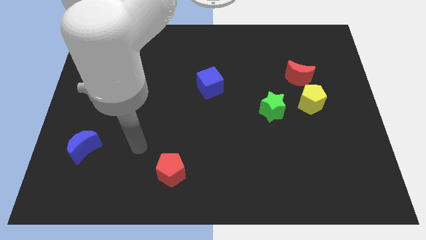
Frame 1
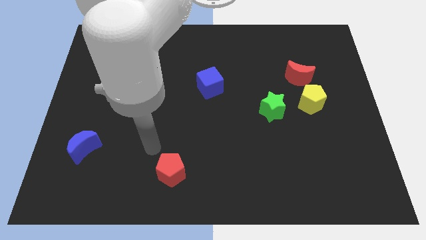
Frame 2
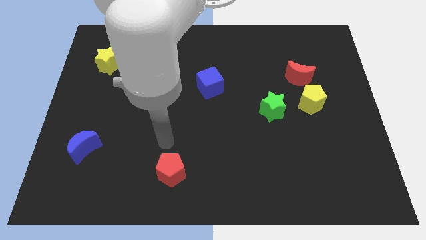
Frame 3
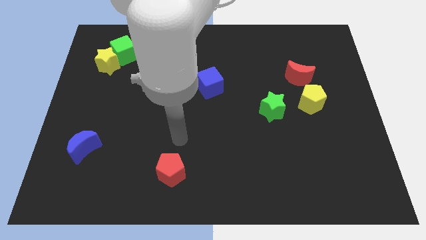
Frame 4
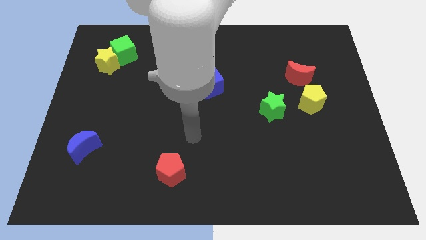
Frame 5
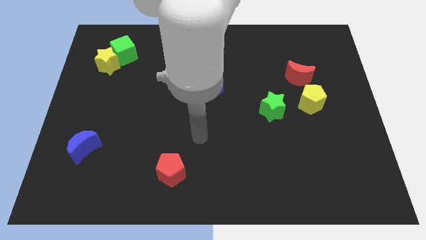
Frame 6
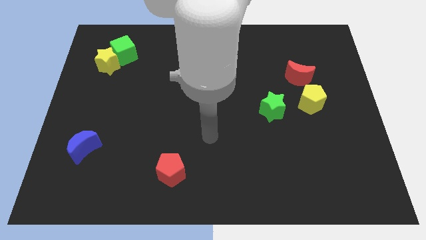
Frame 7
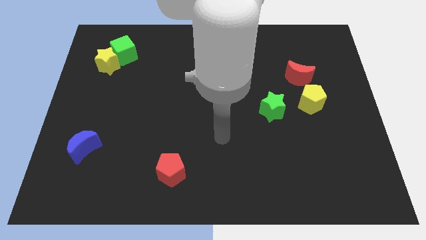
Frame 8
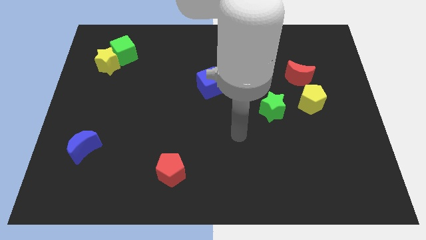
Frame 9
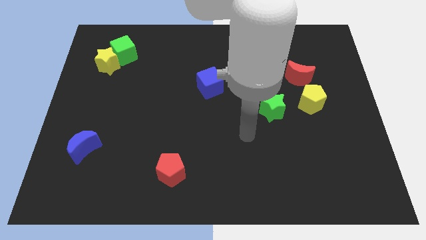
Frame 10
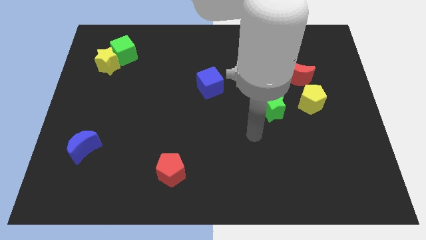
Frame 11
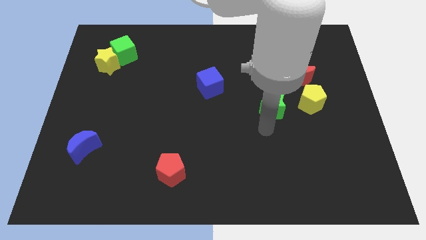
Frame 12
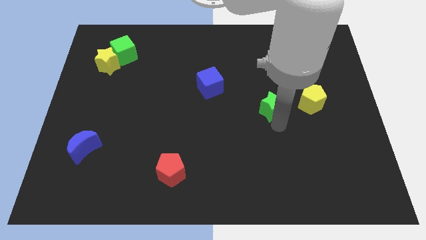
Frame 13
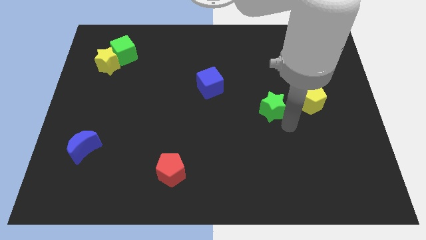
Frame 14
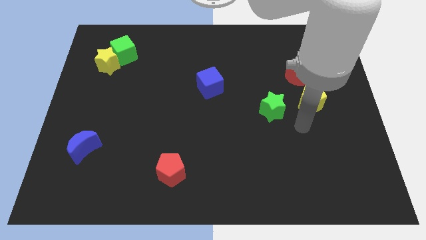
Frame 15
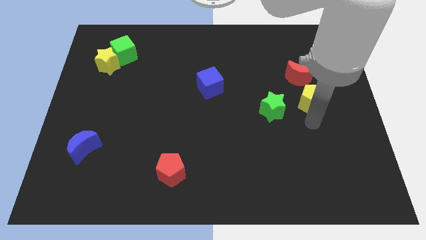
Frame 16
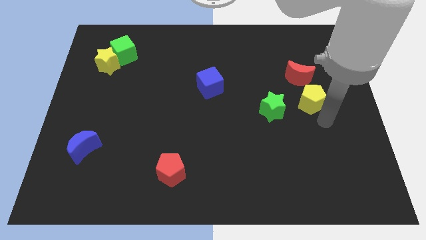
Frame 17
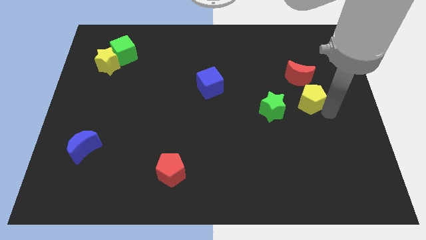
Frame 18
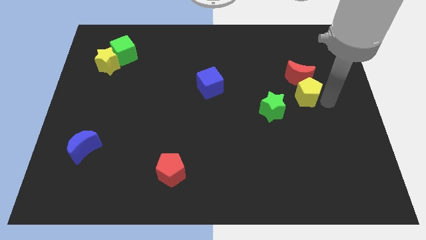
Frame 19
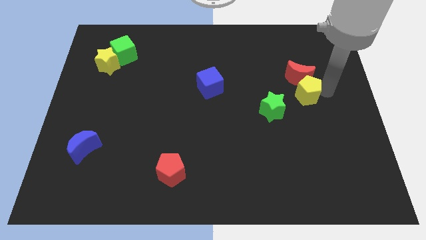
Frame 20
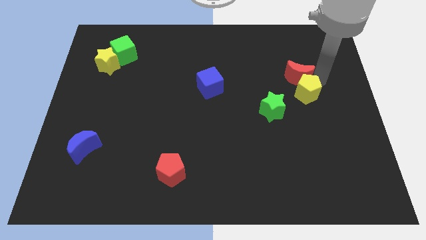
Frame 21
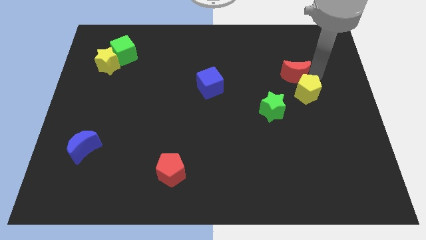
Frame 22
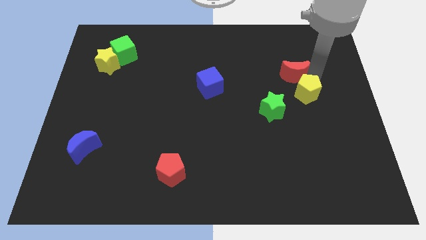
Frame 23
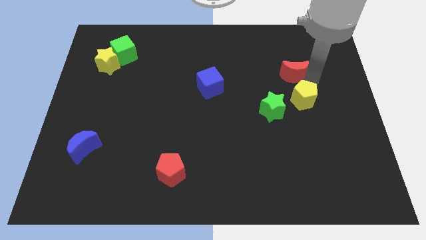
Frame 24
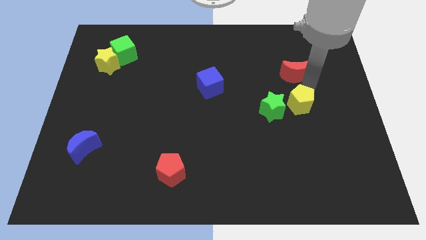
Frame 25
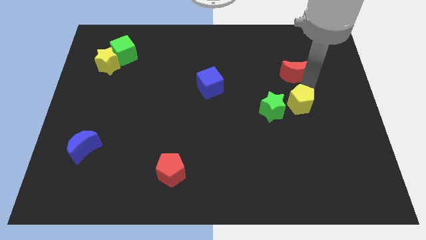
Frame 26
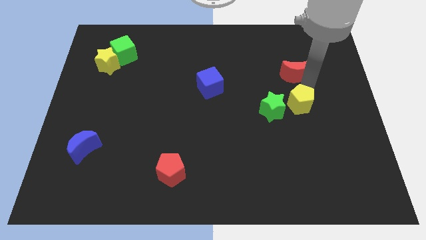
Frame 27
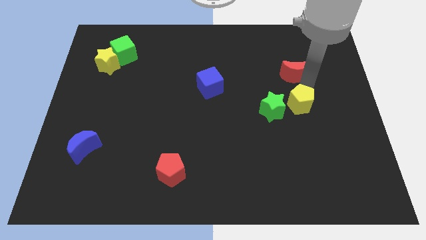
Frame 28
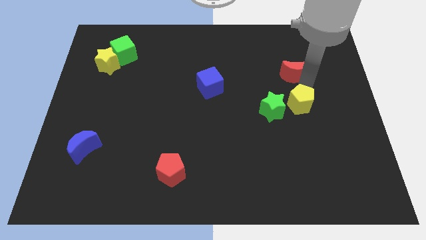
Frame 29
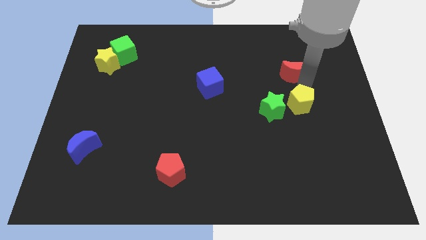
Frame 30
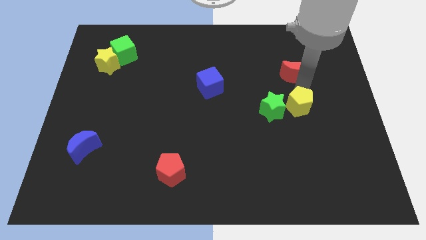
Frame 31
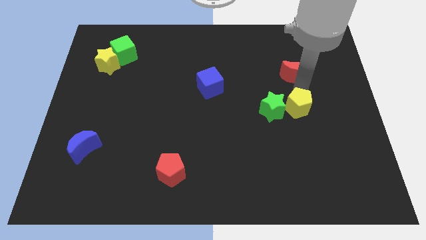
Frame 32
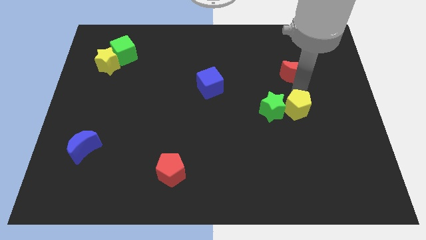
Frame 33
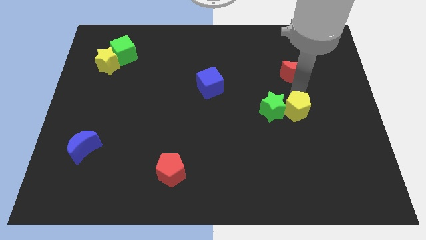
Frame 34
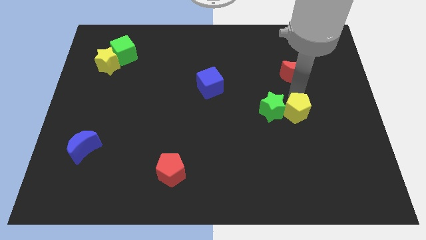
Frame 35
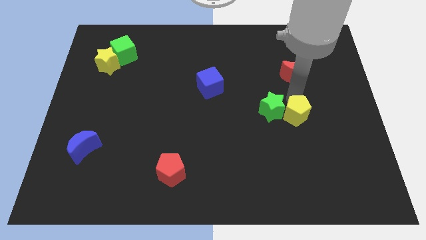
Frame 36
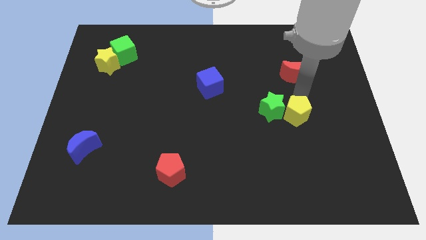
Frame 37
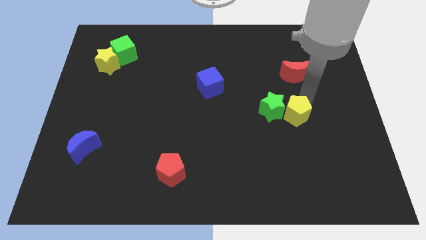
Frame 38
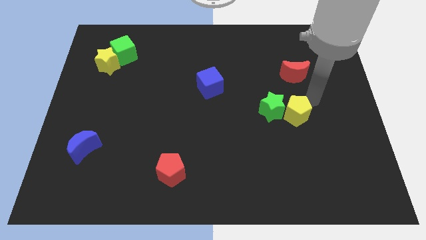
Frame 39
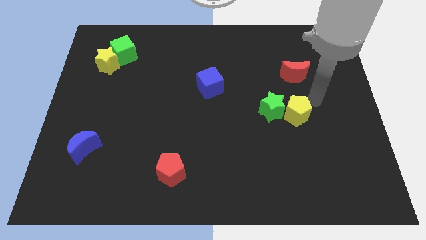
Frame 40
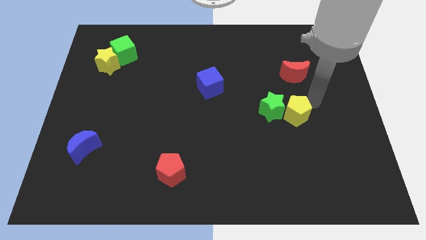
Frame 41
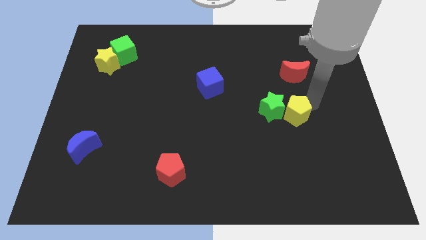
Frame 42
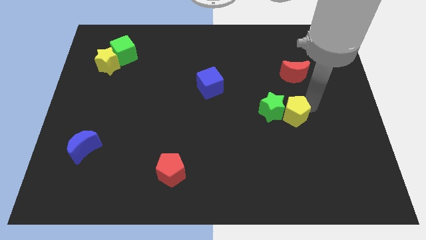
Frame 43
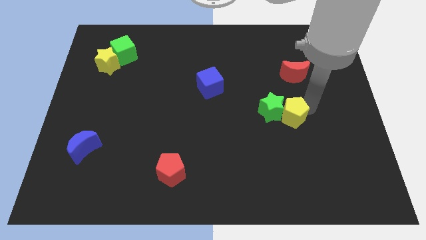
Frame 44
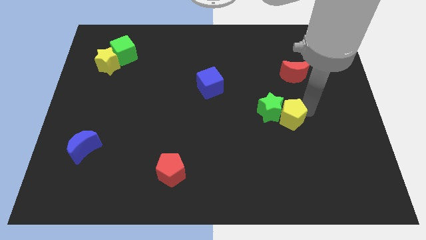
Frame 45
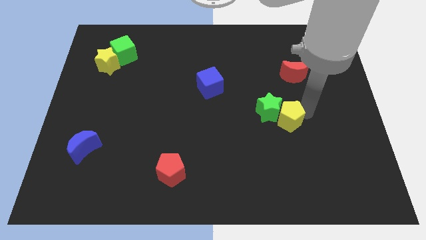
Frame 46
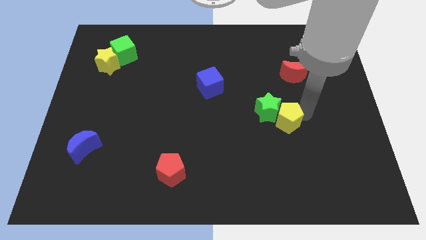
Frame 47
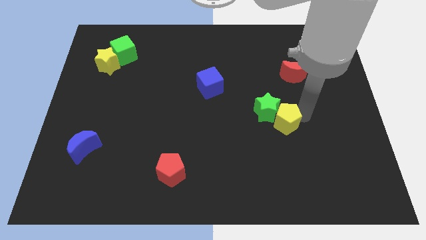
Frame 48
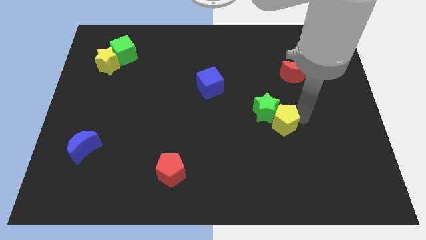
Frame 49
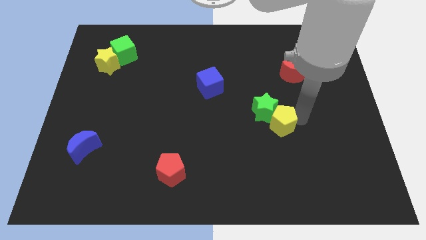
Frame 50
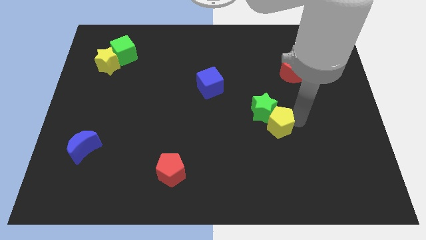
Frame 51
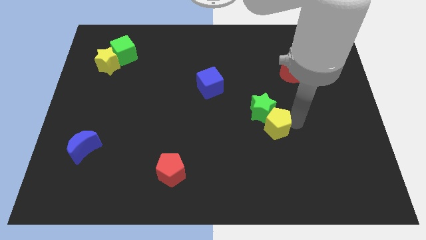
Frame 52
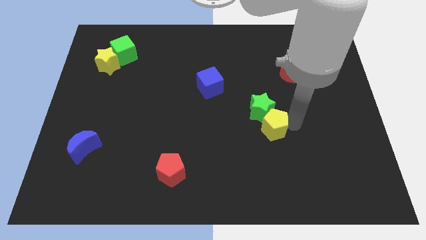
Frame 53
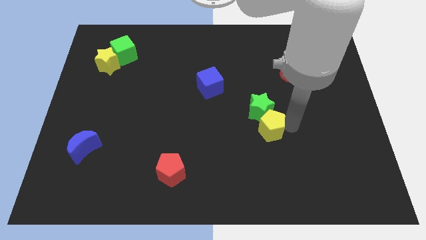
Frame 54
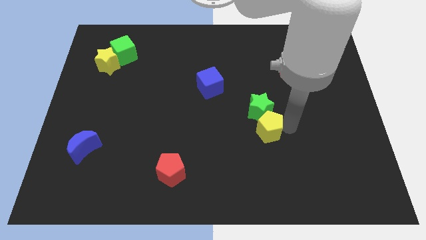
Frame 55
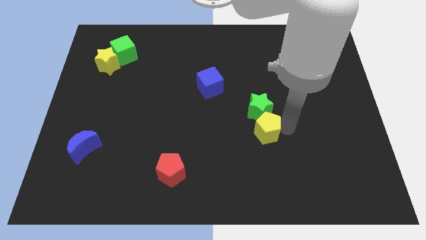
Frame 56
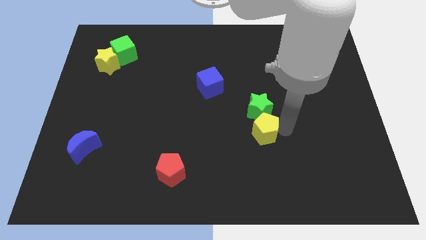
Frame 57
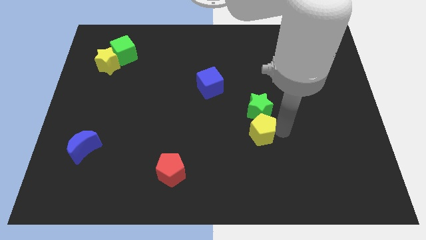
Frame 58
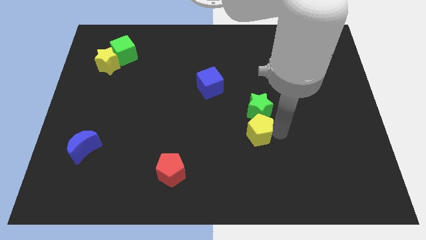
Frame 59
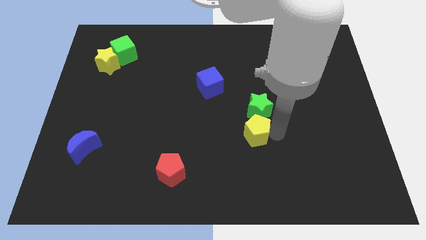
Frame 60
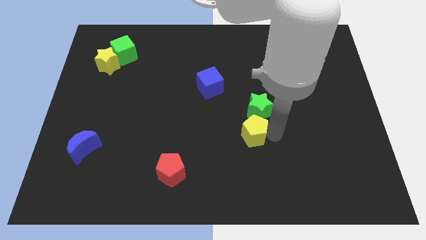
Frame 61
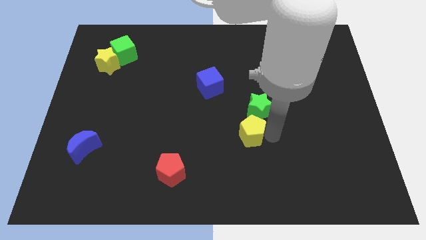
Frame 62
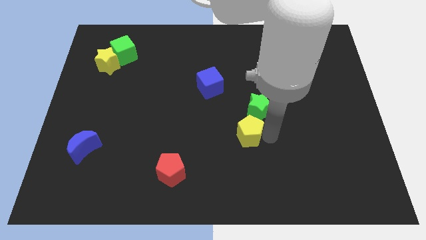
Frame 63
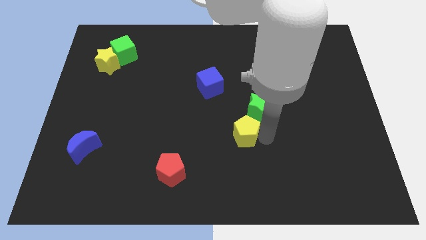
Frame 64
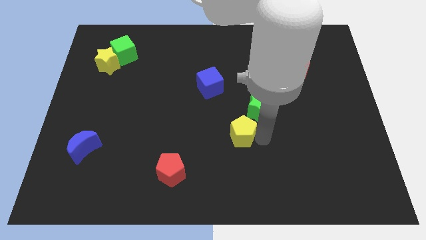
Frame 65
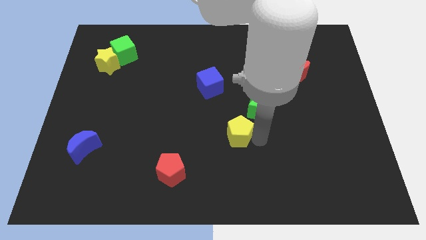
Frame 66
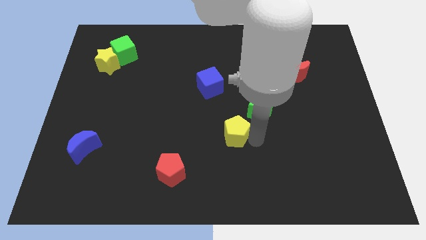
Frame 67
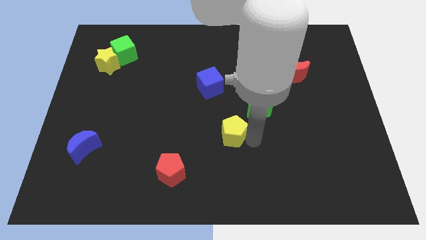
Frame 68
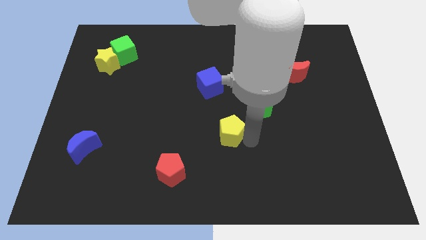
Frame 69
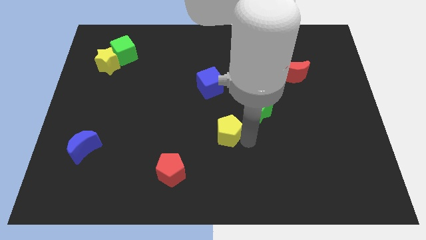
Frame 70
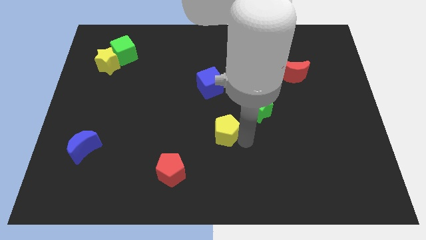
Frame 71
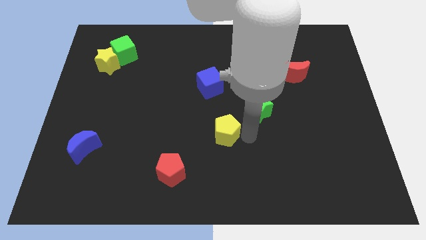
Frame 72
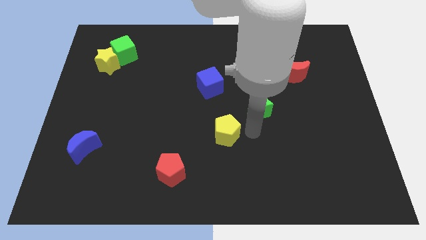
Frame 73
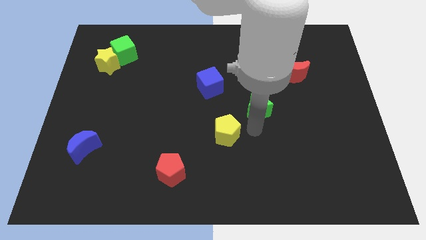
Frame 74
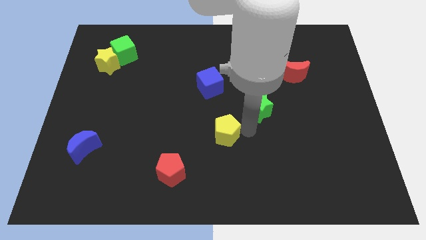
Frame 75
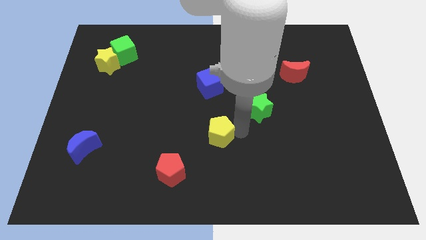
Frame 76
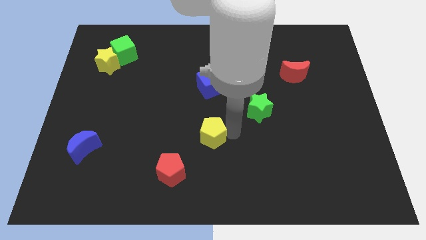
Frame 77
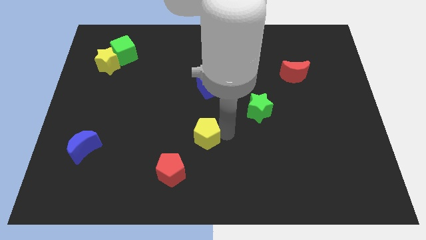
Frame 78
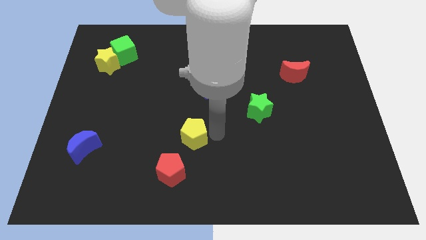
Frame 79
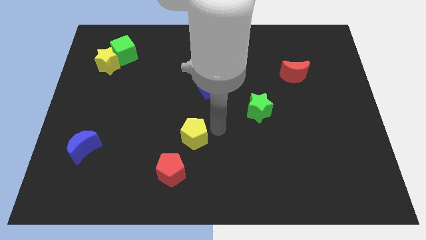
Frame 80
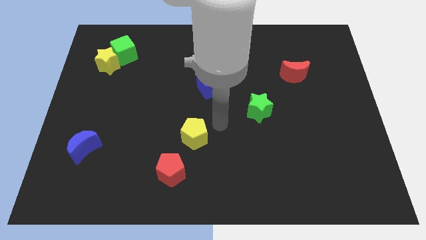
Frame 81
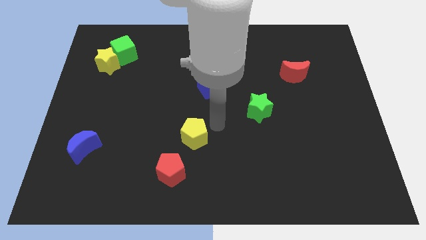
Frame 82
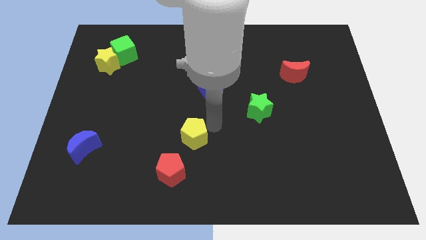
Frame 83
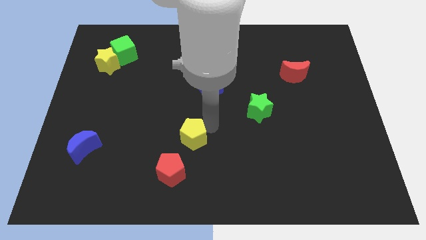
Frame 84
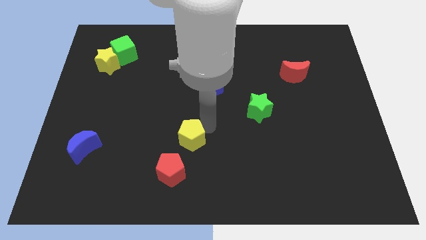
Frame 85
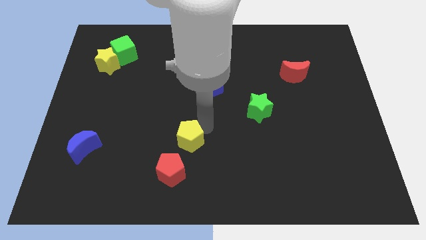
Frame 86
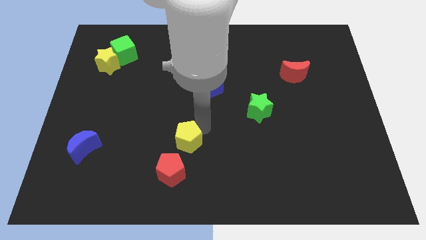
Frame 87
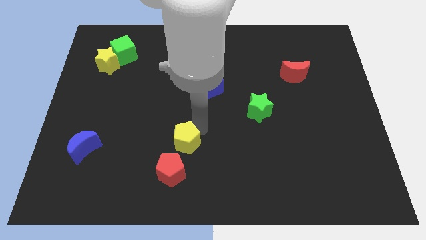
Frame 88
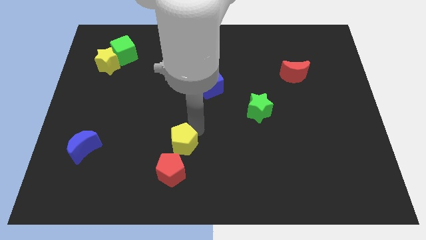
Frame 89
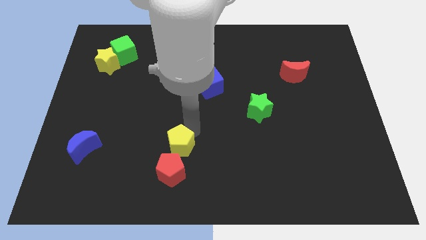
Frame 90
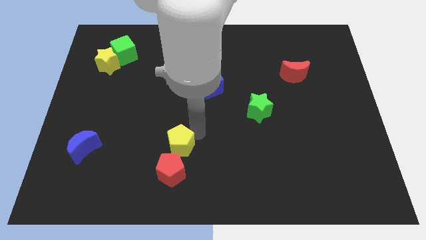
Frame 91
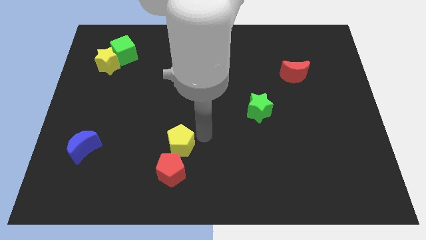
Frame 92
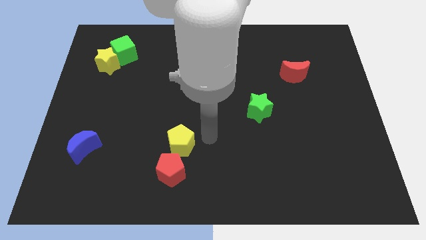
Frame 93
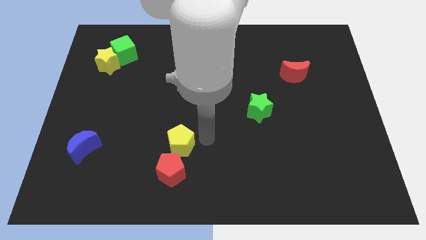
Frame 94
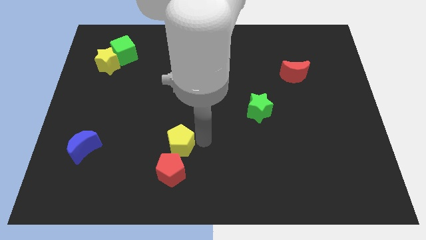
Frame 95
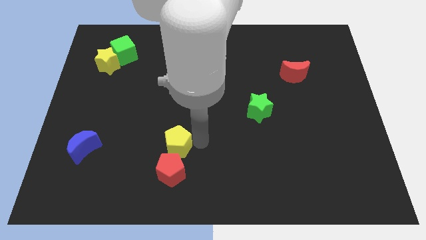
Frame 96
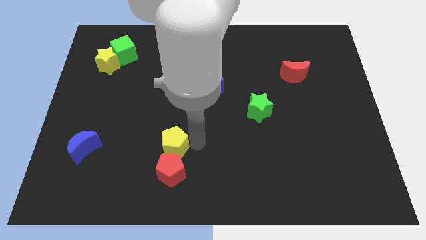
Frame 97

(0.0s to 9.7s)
slide the yellow pentagon to the top left side of the red pentagon
